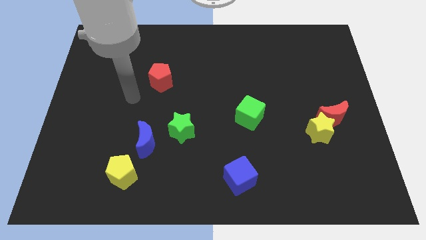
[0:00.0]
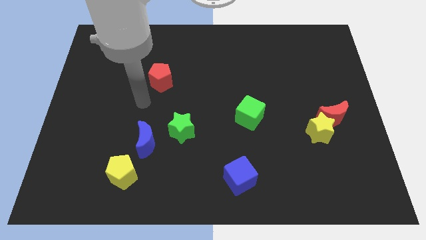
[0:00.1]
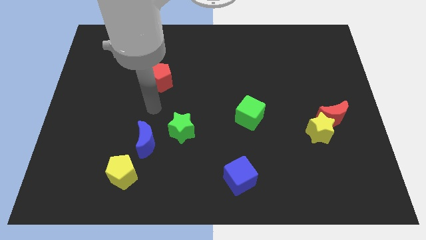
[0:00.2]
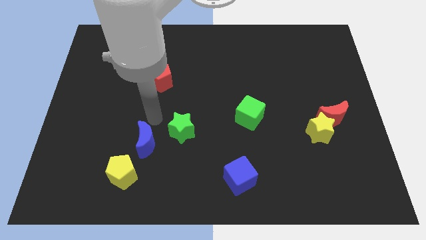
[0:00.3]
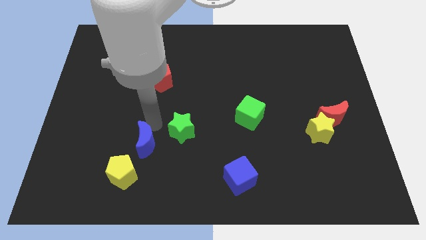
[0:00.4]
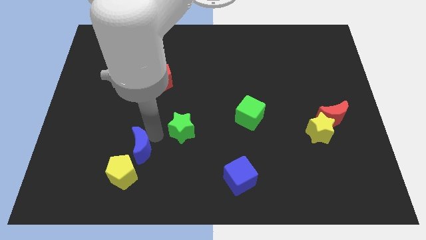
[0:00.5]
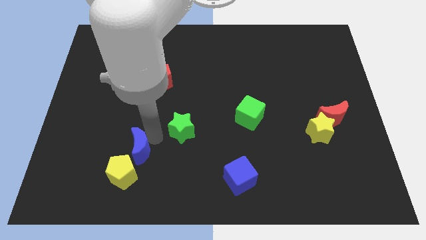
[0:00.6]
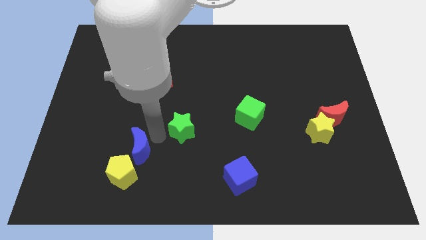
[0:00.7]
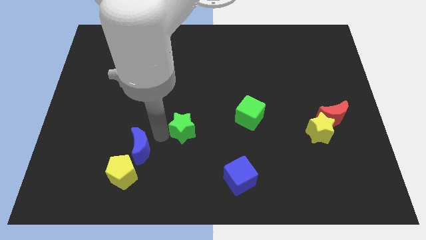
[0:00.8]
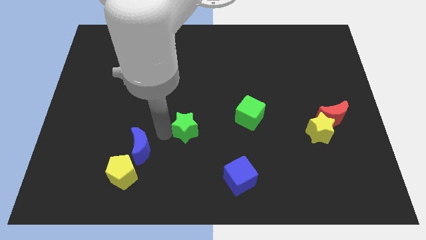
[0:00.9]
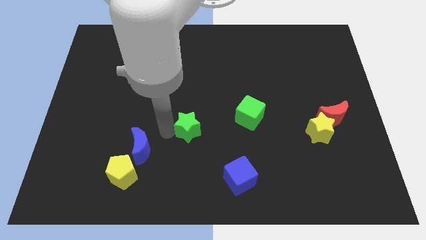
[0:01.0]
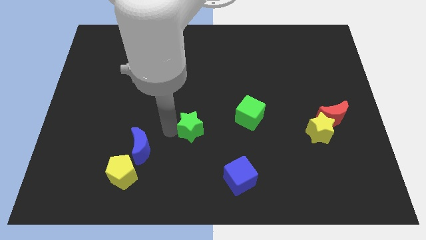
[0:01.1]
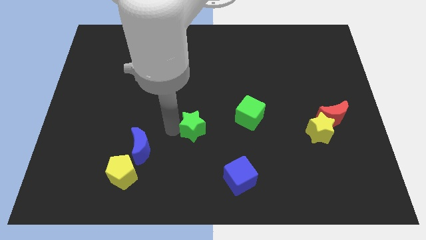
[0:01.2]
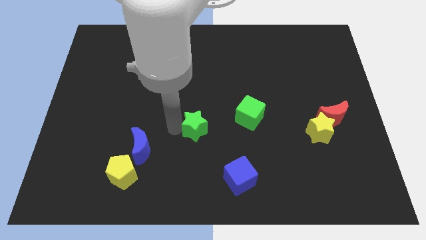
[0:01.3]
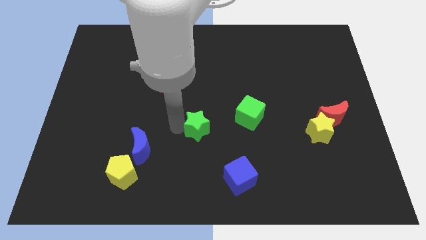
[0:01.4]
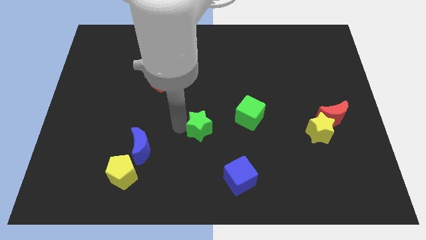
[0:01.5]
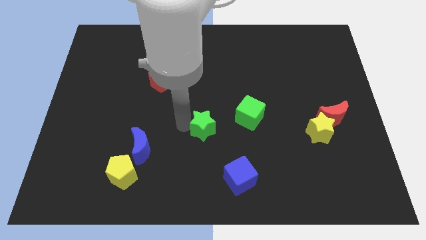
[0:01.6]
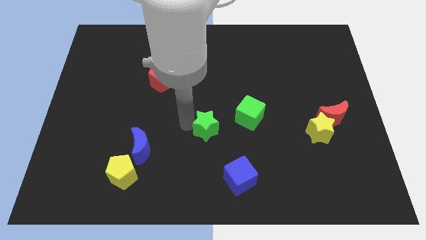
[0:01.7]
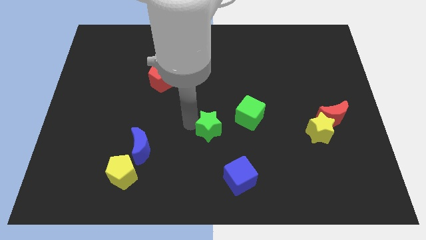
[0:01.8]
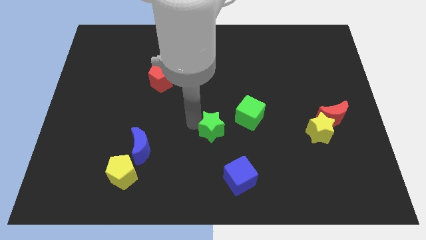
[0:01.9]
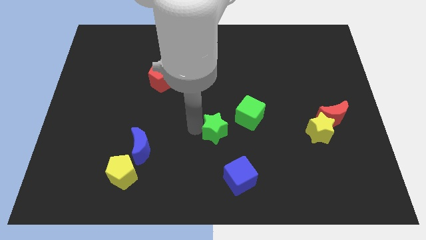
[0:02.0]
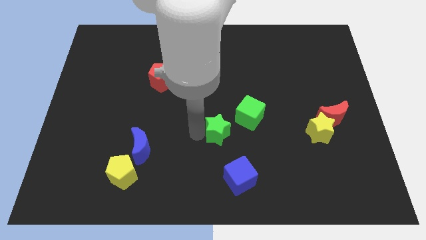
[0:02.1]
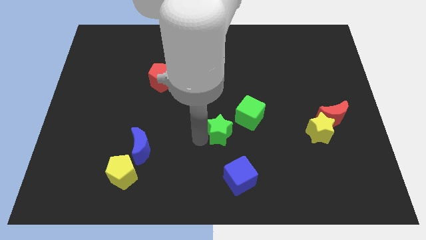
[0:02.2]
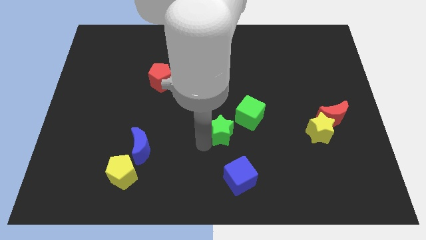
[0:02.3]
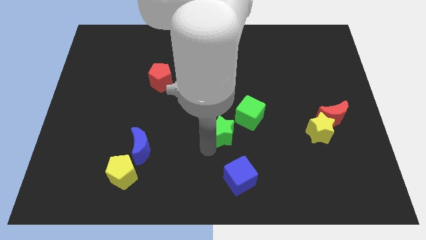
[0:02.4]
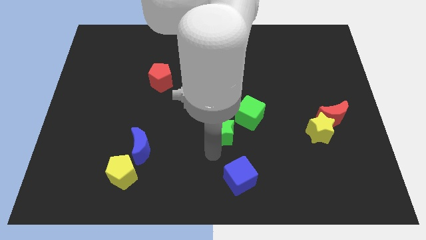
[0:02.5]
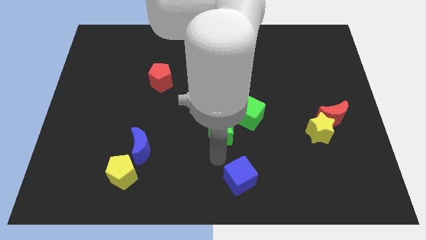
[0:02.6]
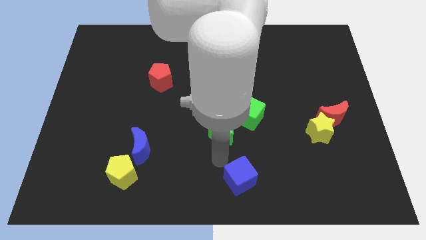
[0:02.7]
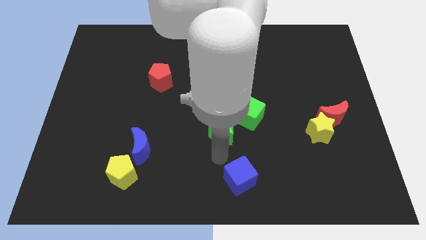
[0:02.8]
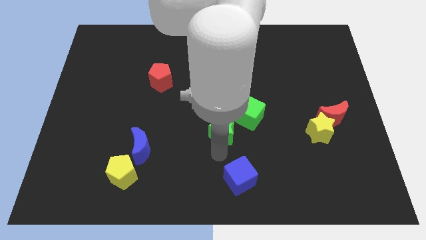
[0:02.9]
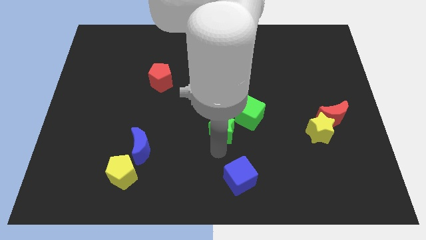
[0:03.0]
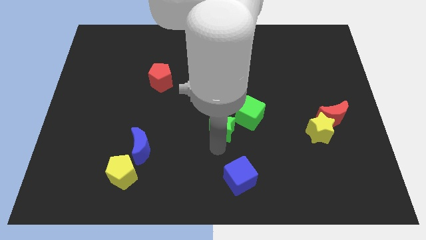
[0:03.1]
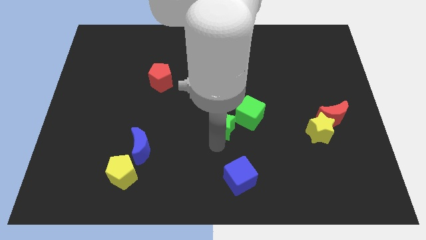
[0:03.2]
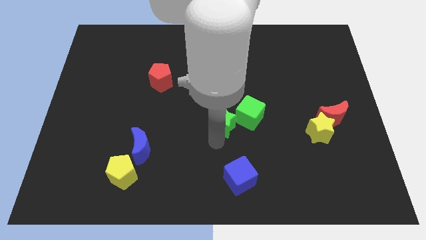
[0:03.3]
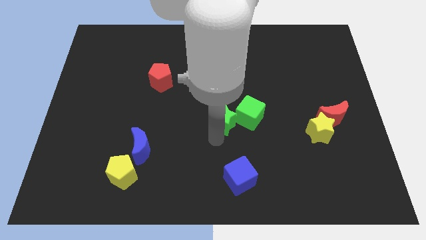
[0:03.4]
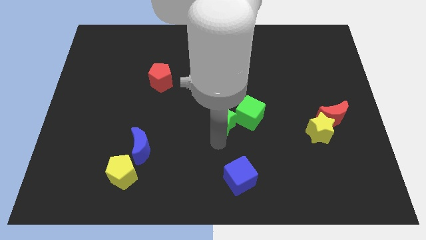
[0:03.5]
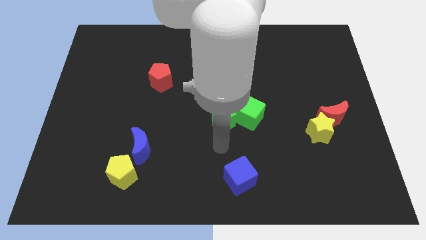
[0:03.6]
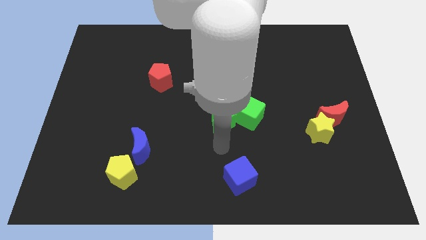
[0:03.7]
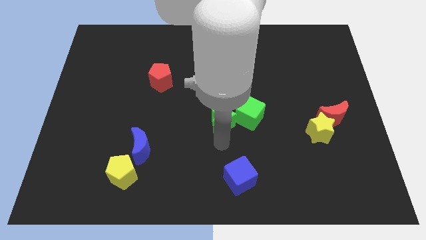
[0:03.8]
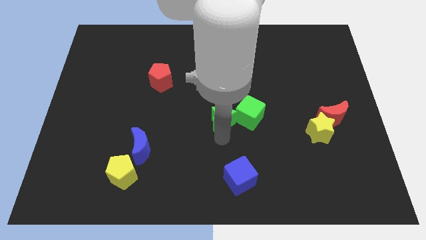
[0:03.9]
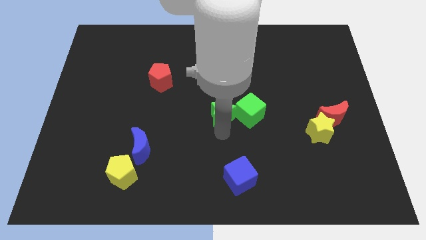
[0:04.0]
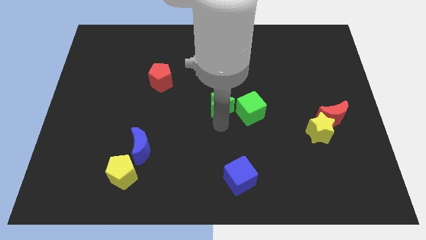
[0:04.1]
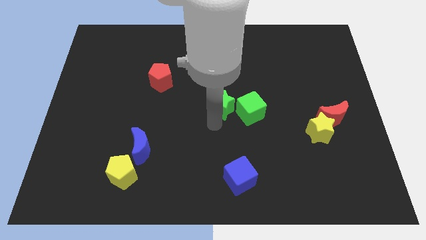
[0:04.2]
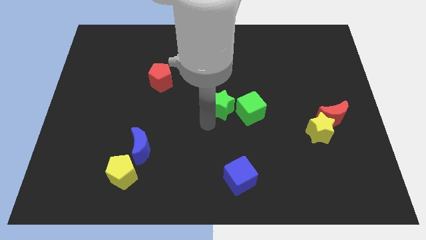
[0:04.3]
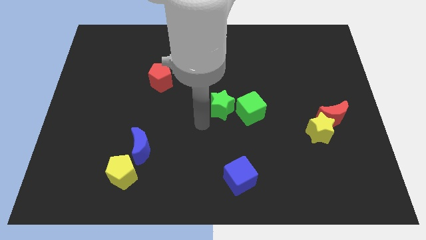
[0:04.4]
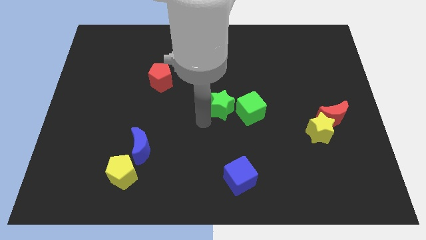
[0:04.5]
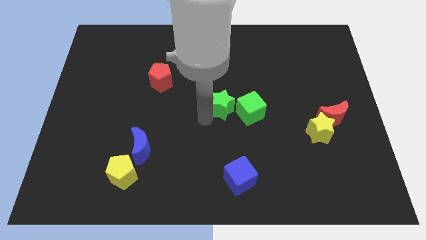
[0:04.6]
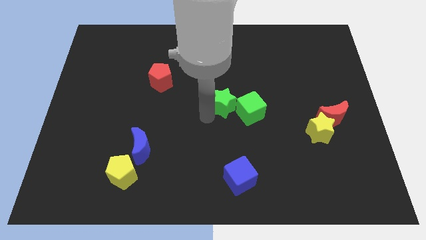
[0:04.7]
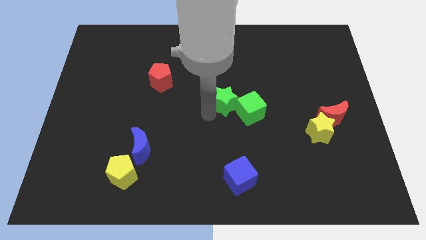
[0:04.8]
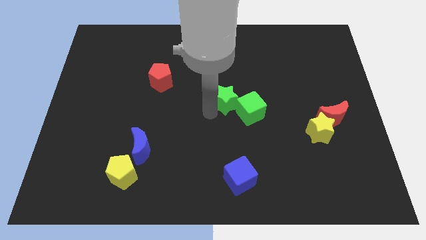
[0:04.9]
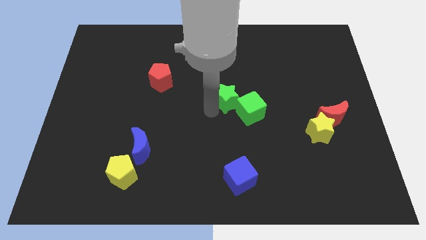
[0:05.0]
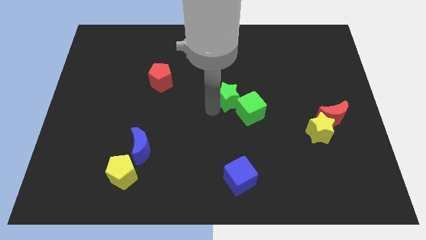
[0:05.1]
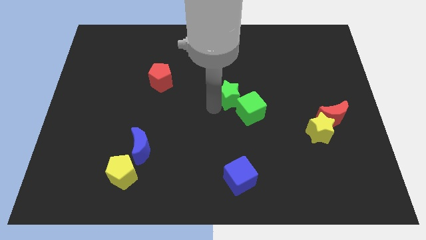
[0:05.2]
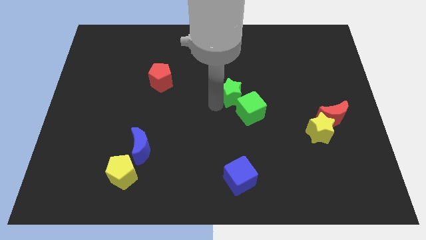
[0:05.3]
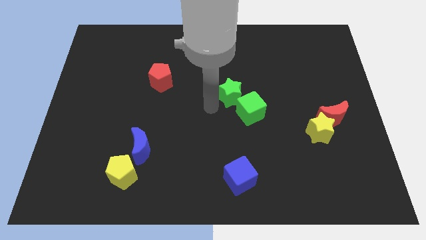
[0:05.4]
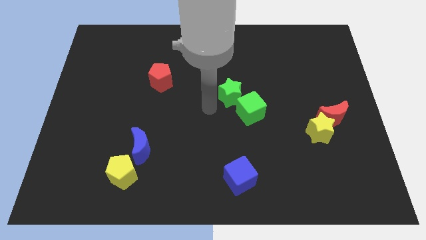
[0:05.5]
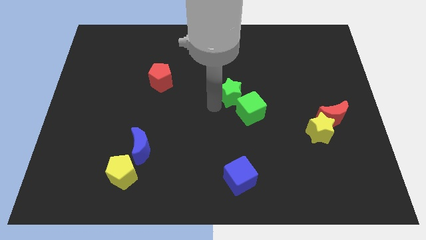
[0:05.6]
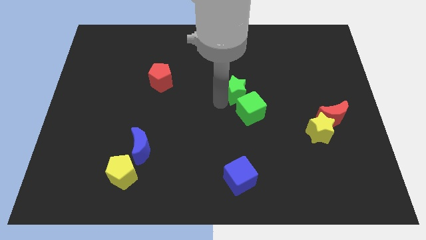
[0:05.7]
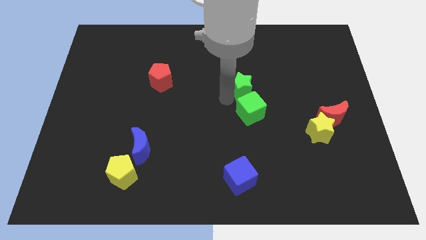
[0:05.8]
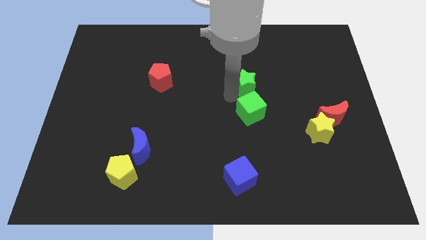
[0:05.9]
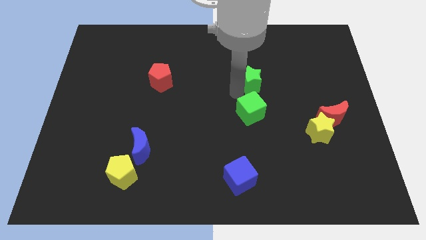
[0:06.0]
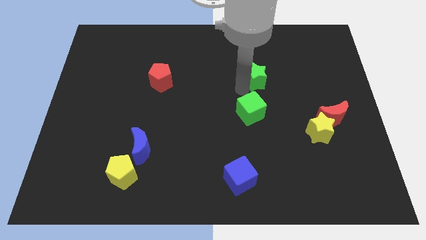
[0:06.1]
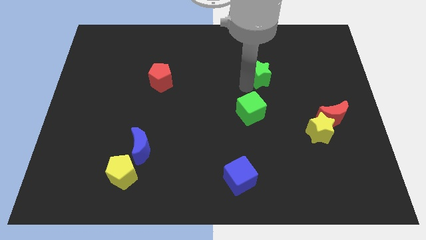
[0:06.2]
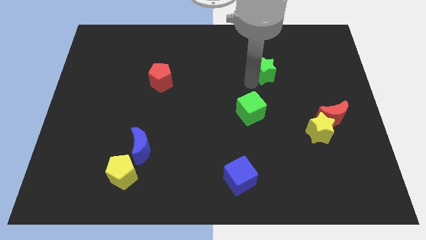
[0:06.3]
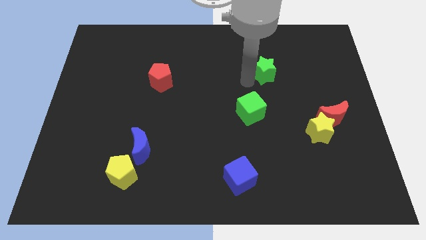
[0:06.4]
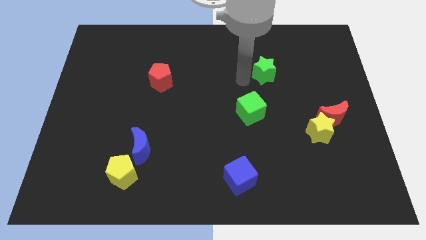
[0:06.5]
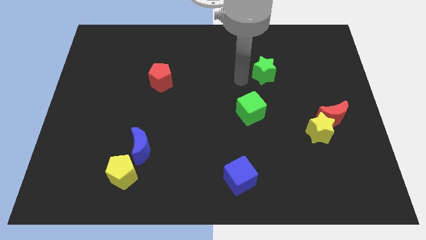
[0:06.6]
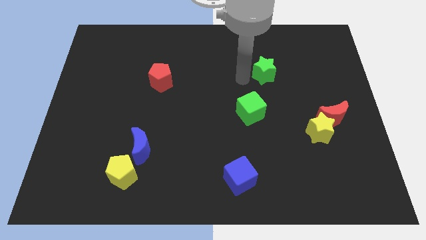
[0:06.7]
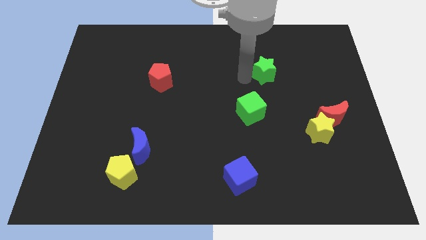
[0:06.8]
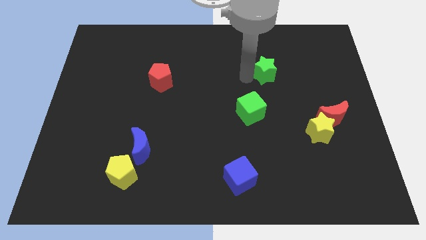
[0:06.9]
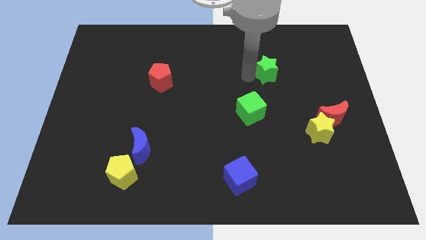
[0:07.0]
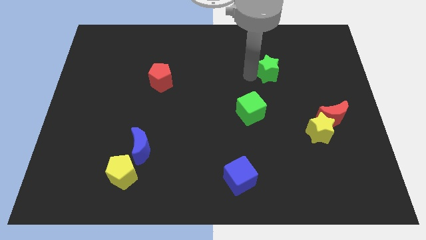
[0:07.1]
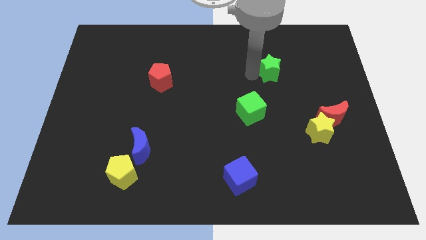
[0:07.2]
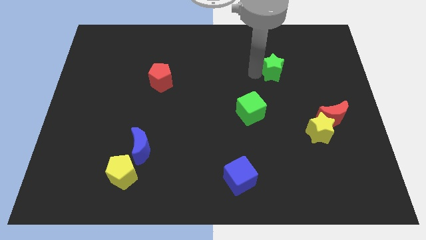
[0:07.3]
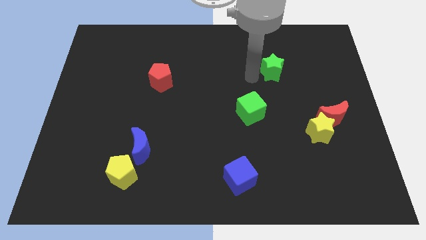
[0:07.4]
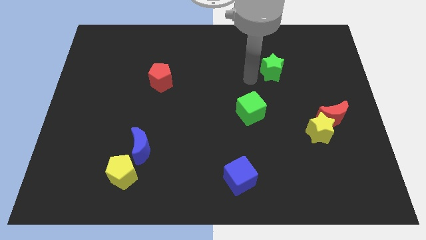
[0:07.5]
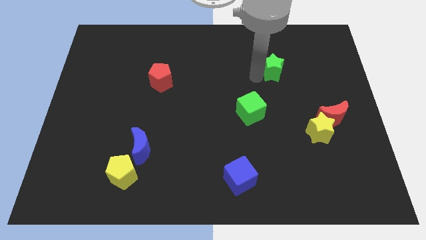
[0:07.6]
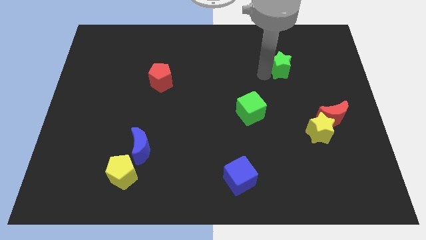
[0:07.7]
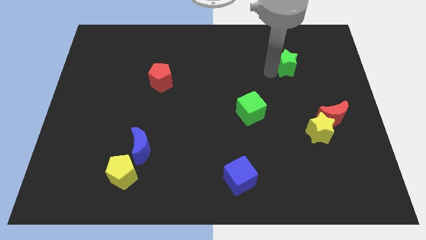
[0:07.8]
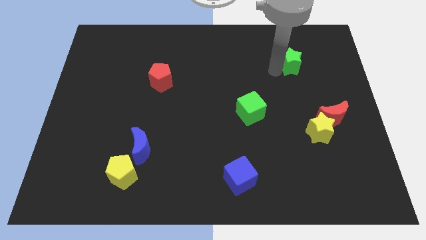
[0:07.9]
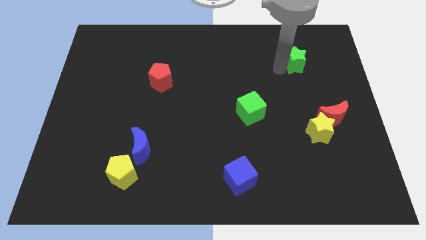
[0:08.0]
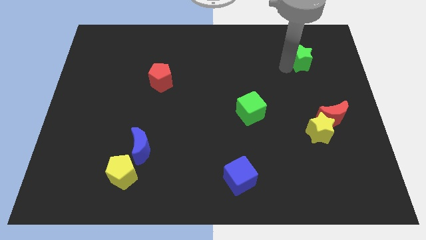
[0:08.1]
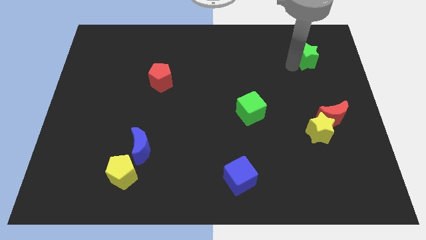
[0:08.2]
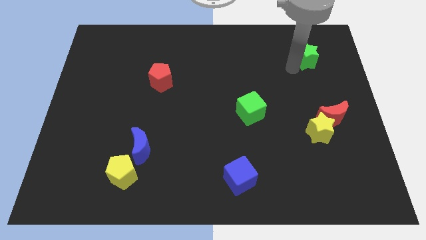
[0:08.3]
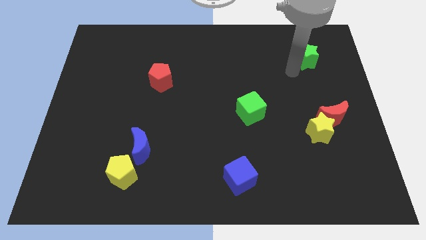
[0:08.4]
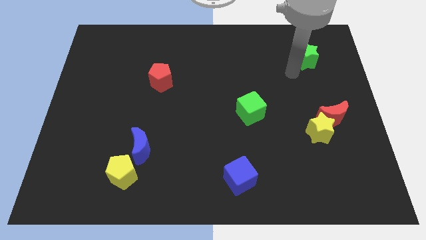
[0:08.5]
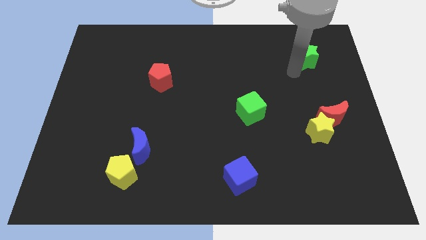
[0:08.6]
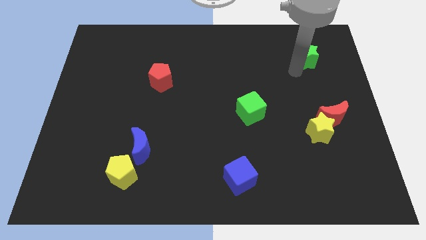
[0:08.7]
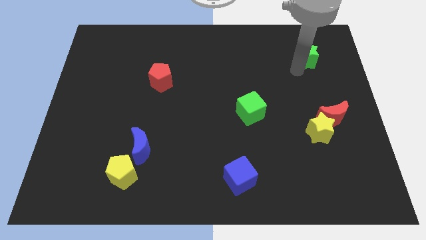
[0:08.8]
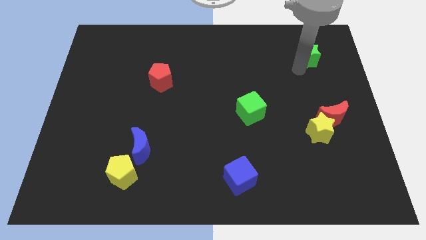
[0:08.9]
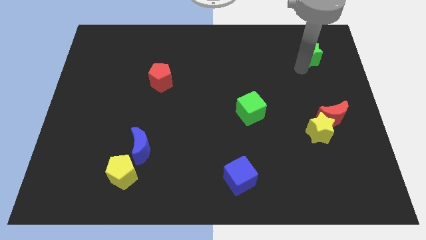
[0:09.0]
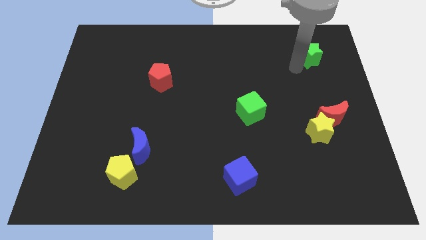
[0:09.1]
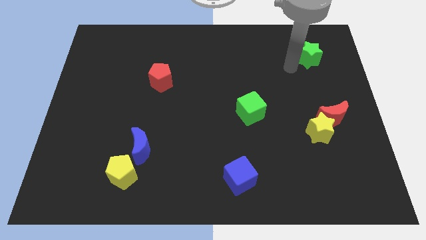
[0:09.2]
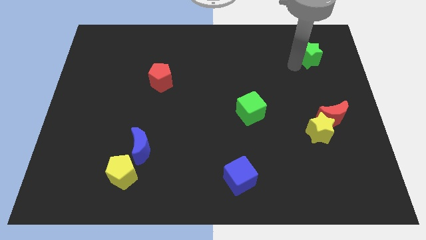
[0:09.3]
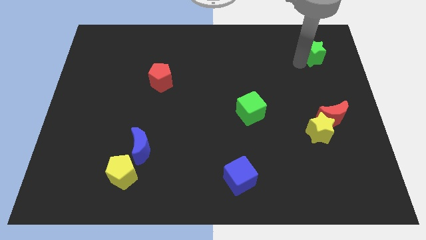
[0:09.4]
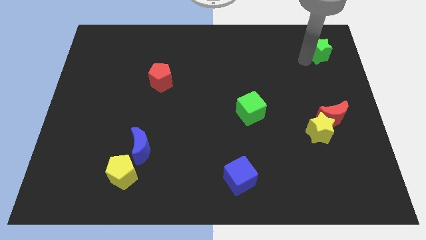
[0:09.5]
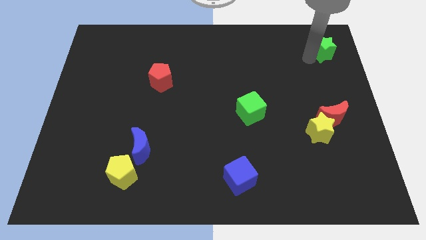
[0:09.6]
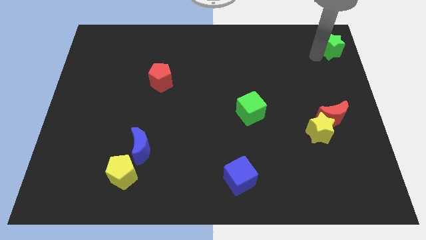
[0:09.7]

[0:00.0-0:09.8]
slide the green star to the top right corner
